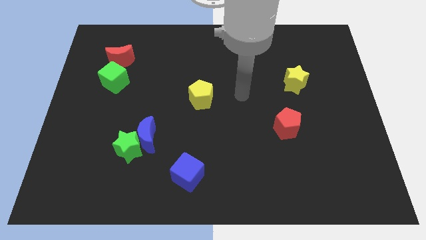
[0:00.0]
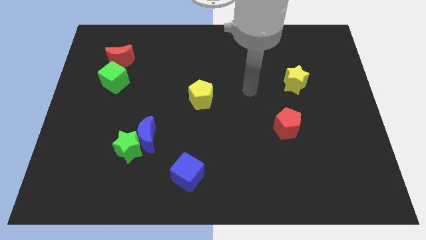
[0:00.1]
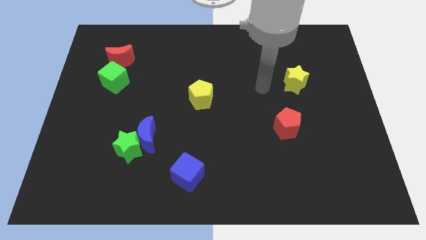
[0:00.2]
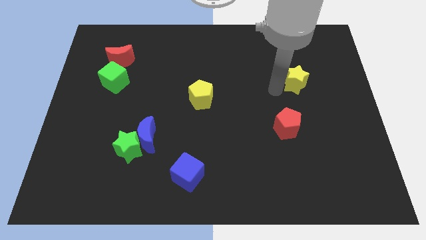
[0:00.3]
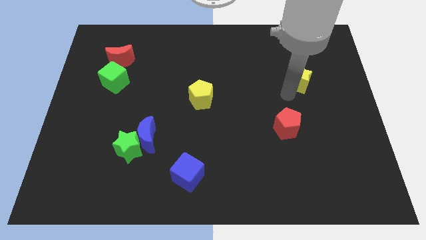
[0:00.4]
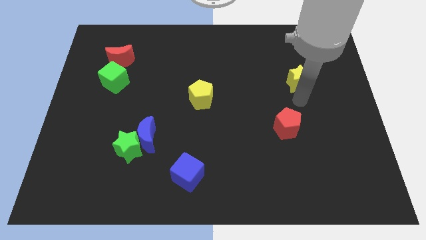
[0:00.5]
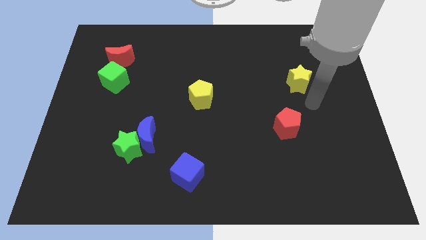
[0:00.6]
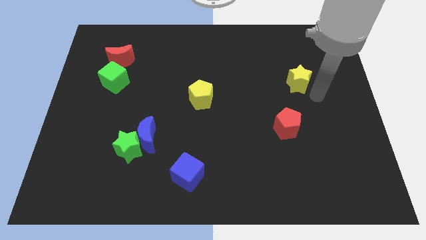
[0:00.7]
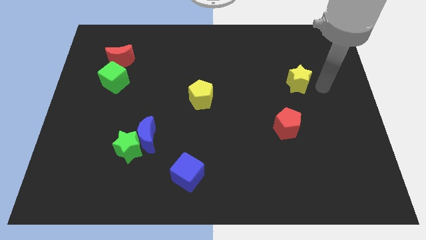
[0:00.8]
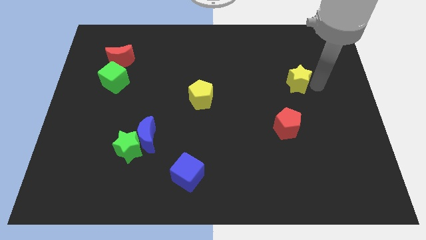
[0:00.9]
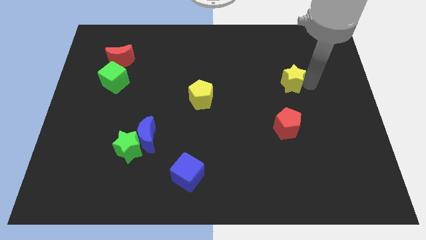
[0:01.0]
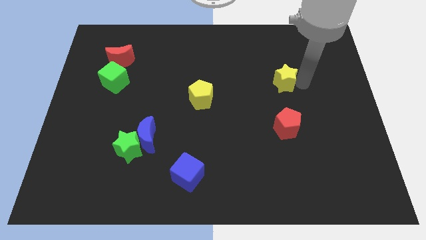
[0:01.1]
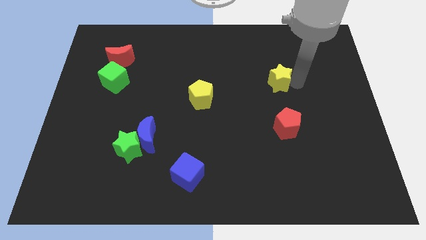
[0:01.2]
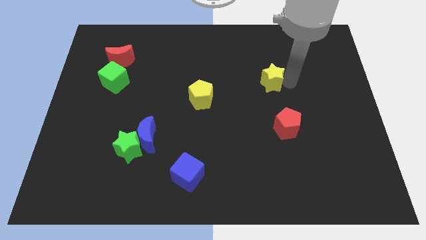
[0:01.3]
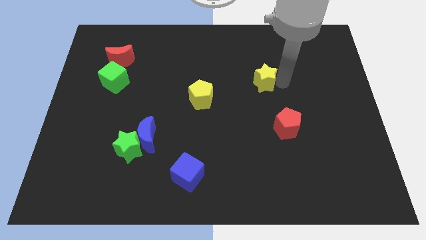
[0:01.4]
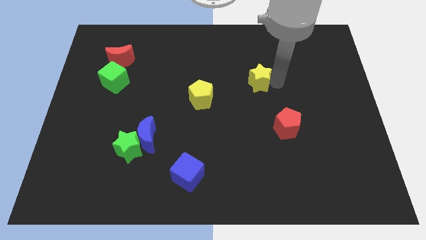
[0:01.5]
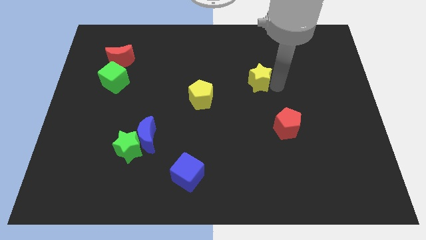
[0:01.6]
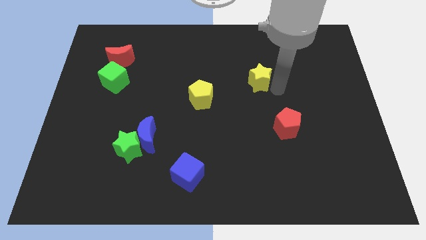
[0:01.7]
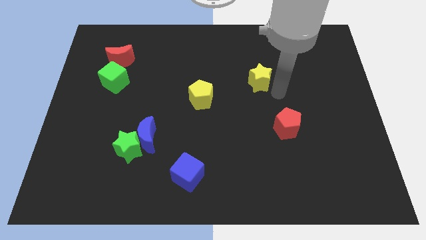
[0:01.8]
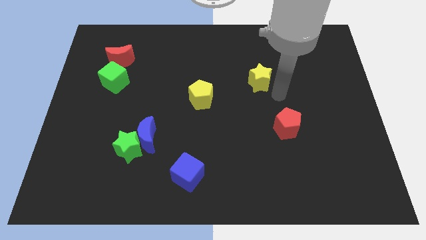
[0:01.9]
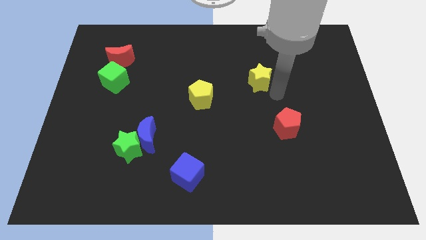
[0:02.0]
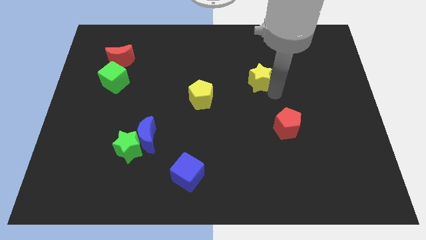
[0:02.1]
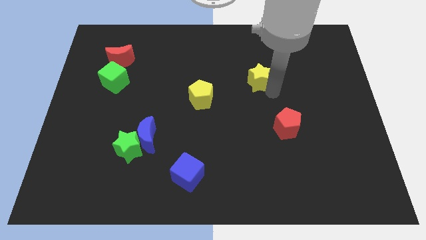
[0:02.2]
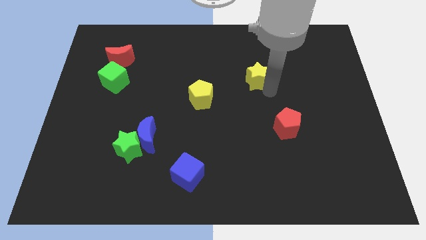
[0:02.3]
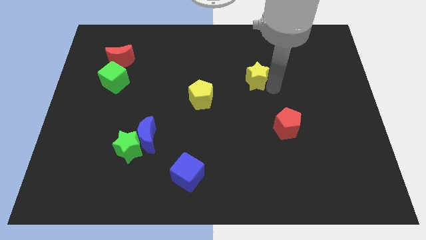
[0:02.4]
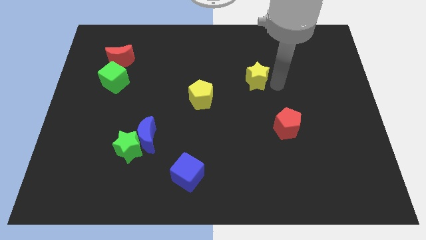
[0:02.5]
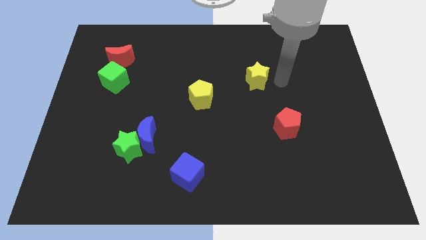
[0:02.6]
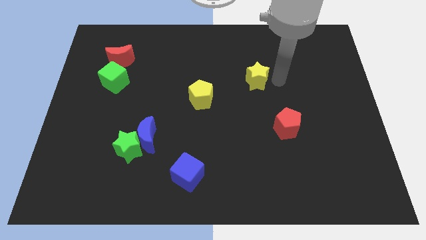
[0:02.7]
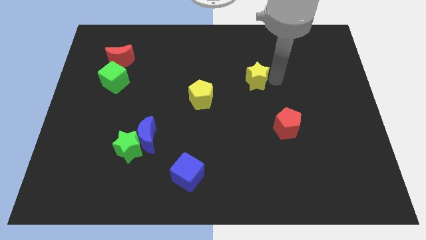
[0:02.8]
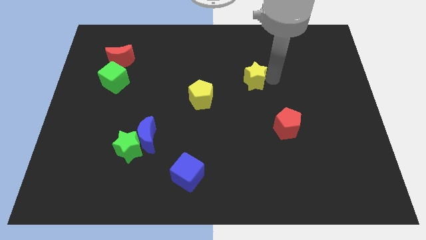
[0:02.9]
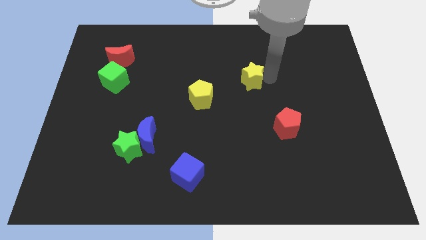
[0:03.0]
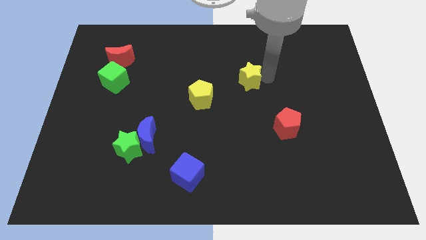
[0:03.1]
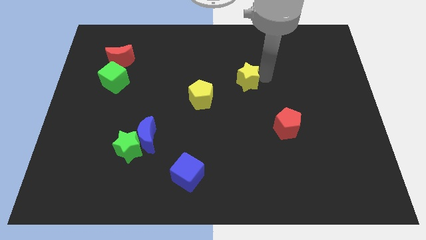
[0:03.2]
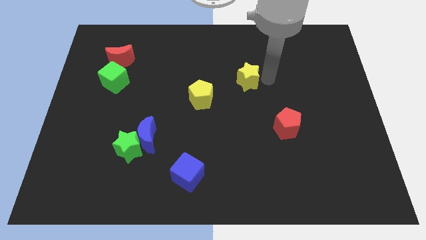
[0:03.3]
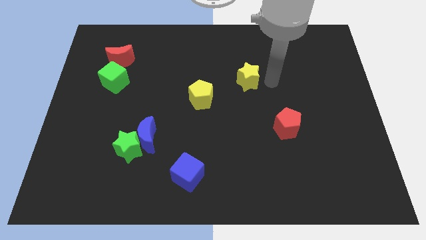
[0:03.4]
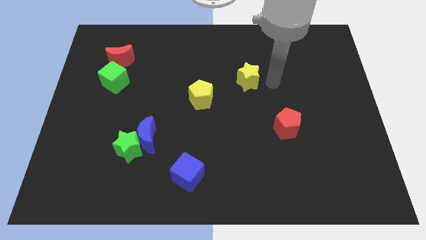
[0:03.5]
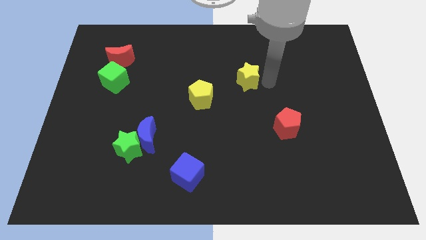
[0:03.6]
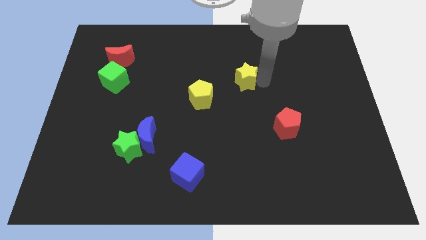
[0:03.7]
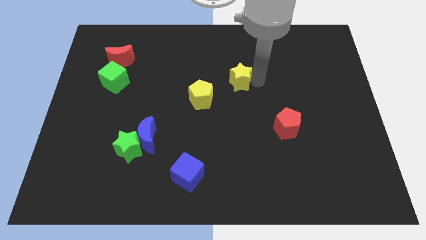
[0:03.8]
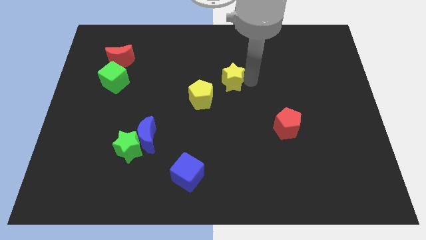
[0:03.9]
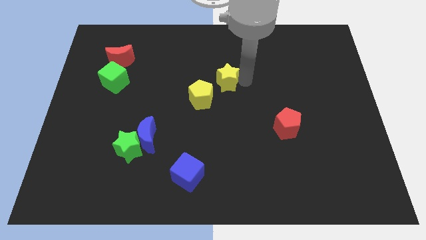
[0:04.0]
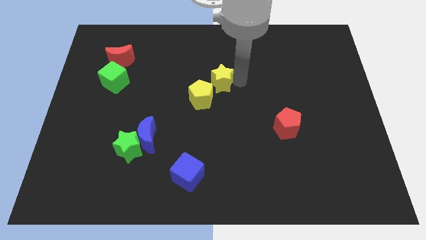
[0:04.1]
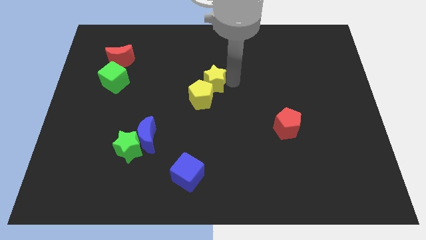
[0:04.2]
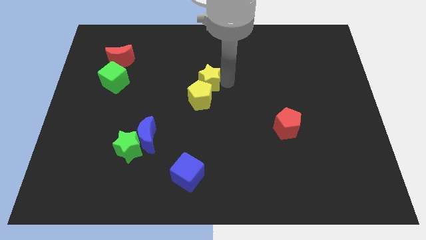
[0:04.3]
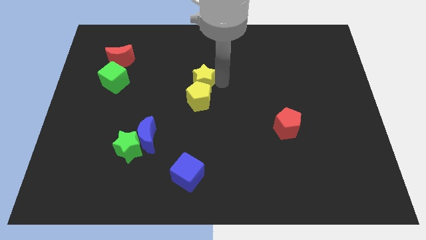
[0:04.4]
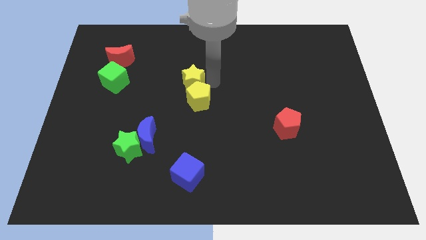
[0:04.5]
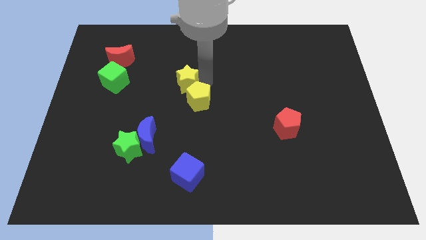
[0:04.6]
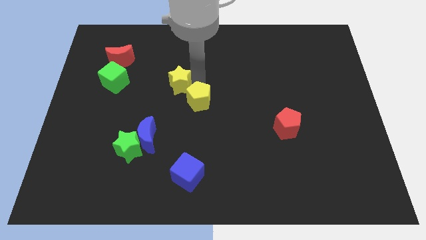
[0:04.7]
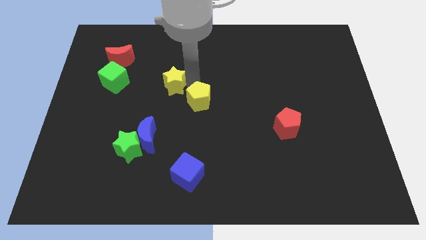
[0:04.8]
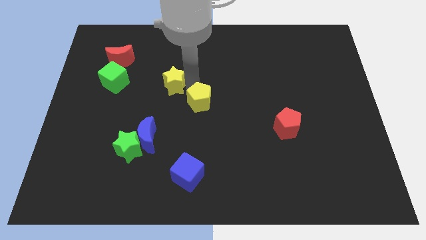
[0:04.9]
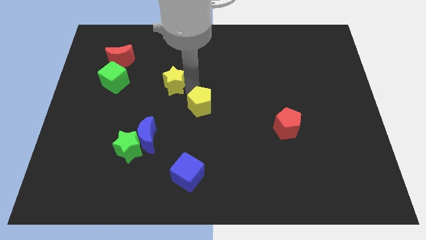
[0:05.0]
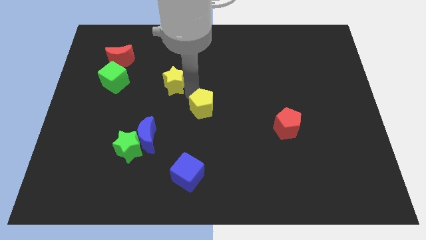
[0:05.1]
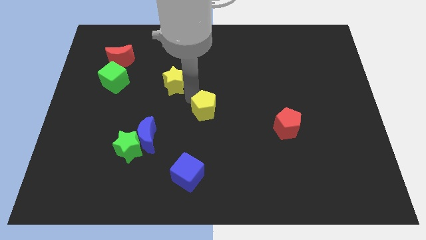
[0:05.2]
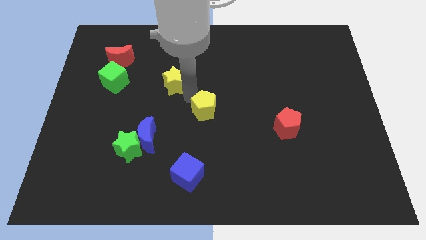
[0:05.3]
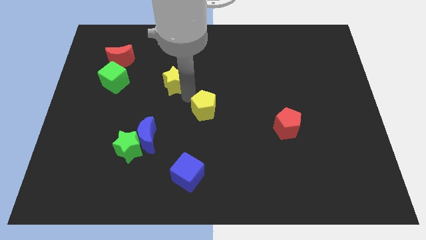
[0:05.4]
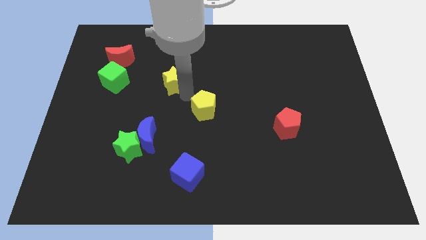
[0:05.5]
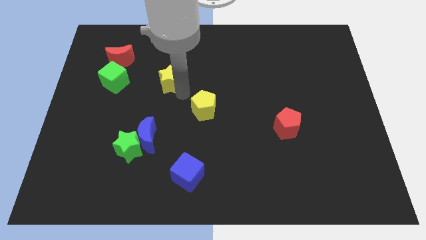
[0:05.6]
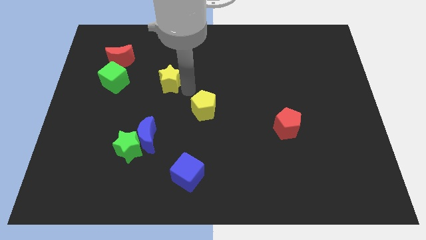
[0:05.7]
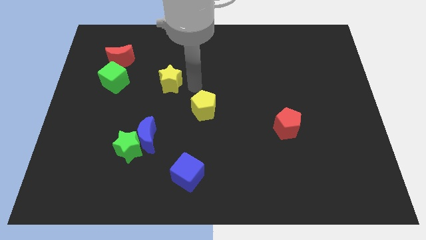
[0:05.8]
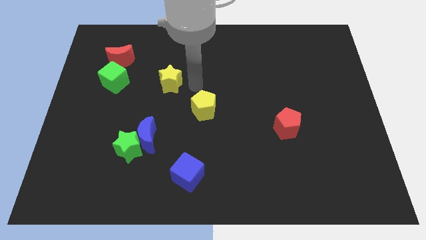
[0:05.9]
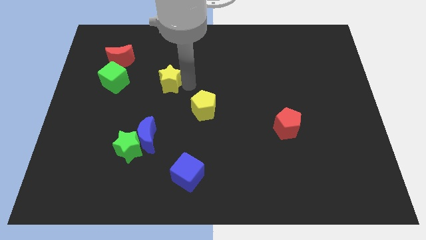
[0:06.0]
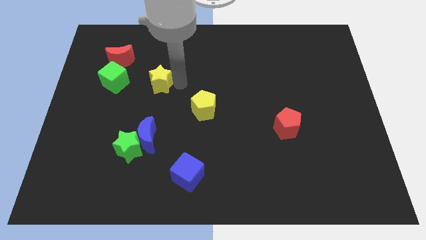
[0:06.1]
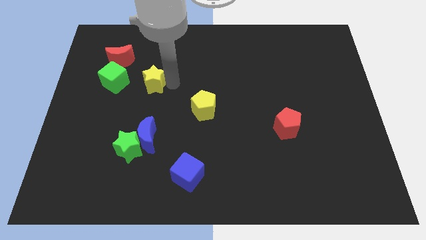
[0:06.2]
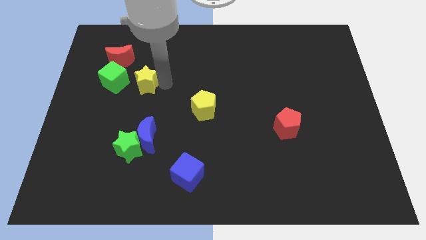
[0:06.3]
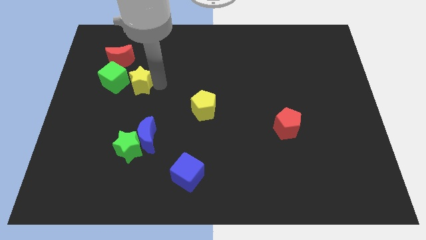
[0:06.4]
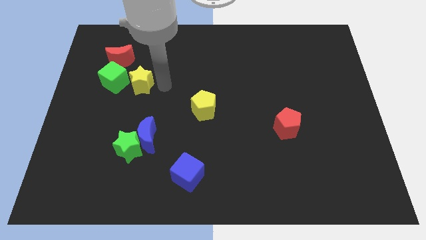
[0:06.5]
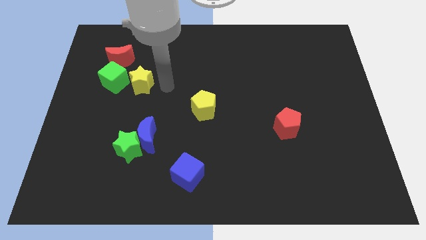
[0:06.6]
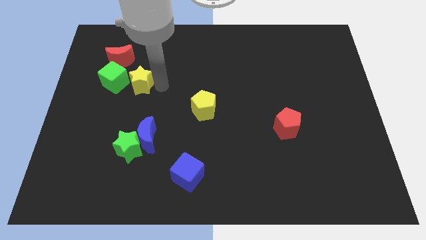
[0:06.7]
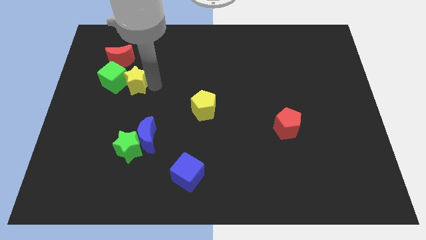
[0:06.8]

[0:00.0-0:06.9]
slide the yellow star next to the green cube
